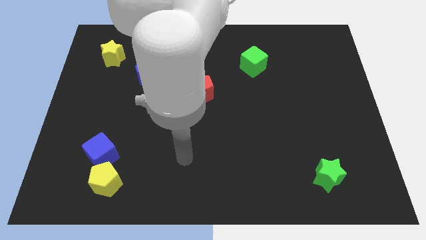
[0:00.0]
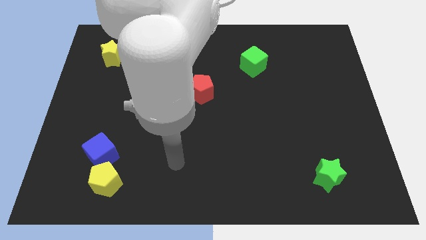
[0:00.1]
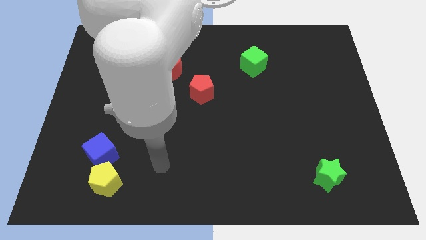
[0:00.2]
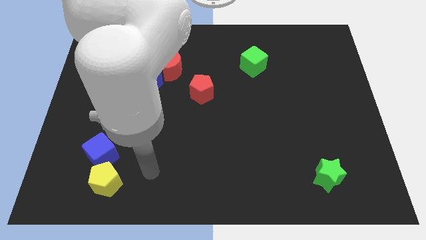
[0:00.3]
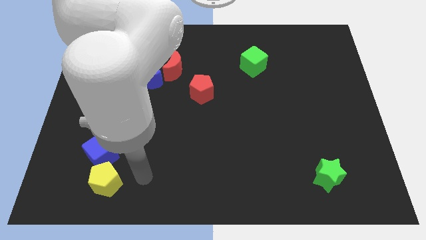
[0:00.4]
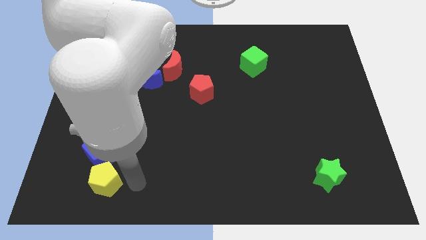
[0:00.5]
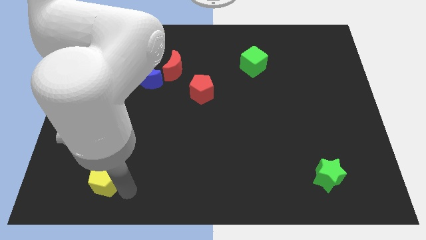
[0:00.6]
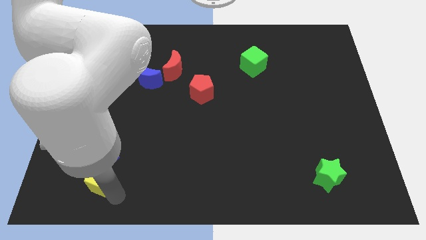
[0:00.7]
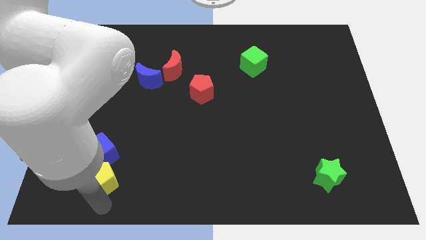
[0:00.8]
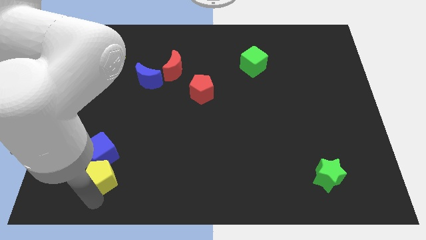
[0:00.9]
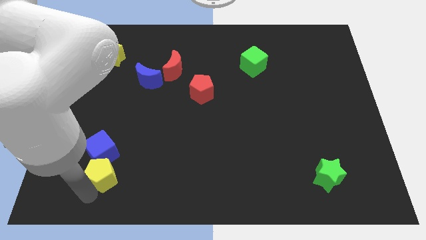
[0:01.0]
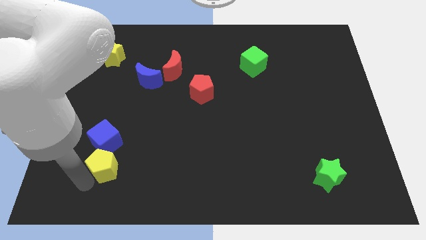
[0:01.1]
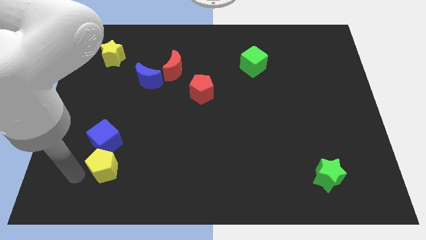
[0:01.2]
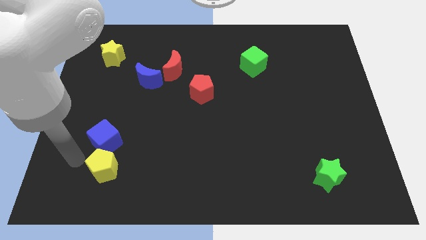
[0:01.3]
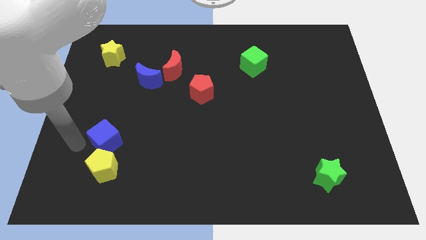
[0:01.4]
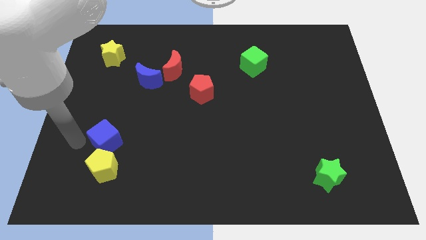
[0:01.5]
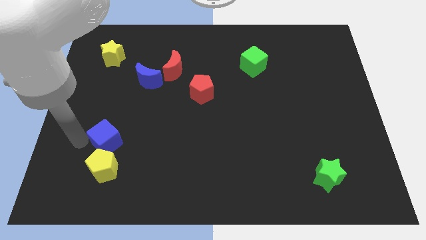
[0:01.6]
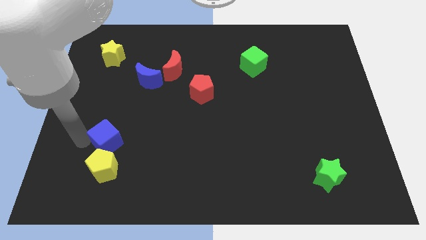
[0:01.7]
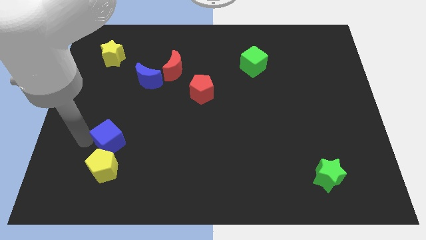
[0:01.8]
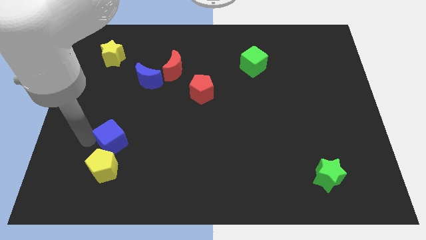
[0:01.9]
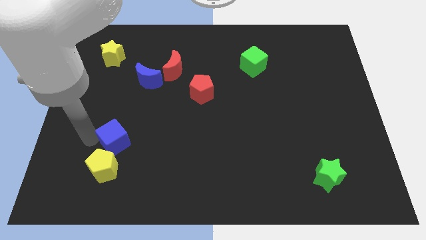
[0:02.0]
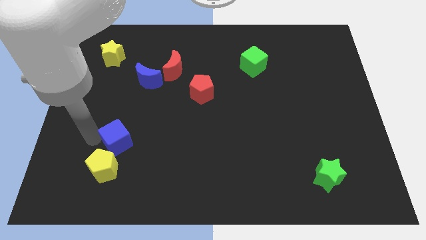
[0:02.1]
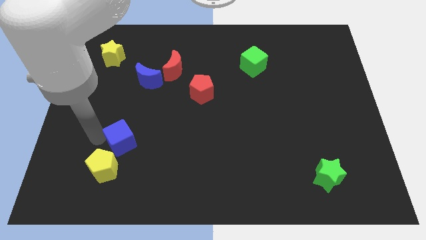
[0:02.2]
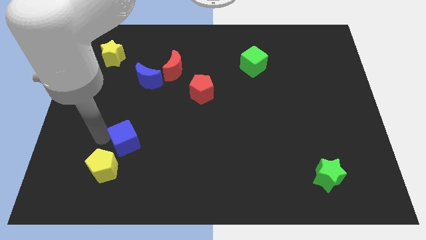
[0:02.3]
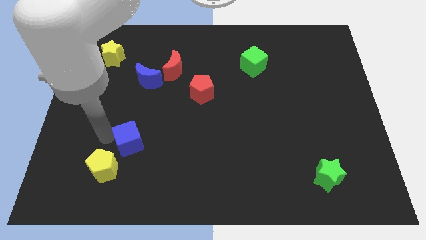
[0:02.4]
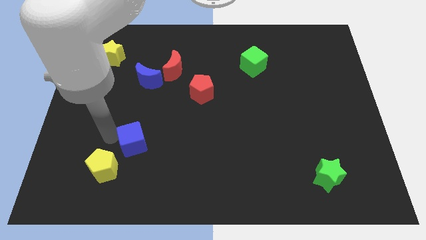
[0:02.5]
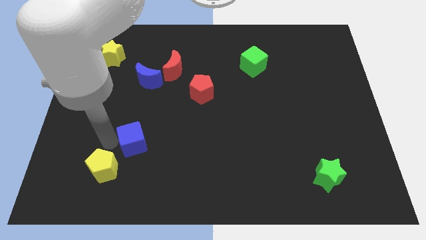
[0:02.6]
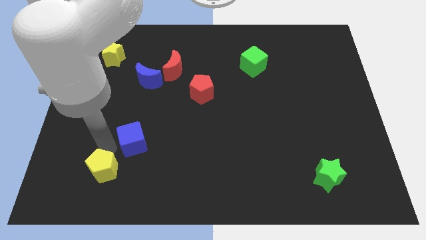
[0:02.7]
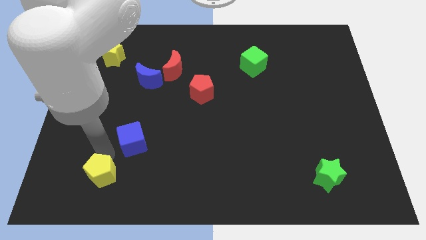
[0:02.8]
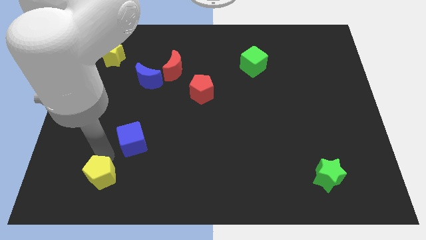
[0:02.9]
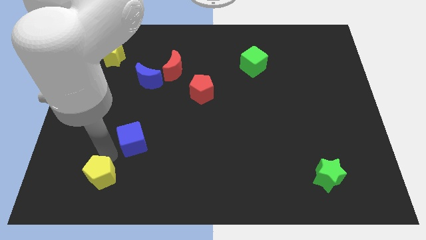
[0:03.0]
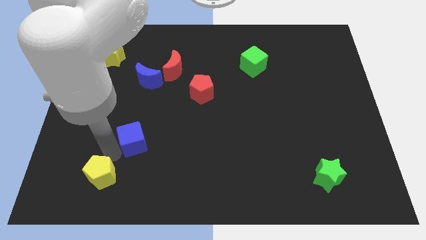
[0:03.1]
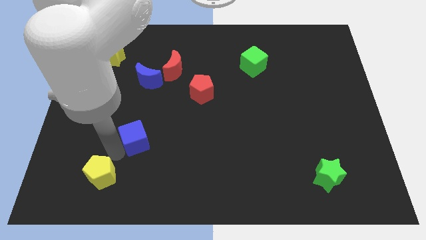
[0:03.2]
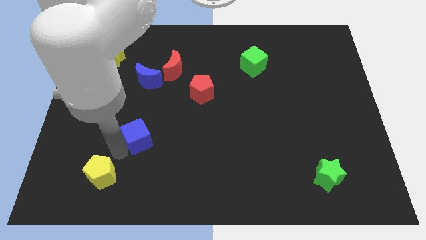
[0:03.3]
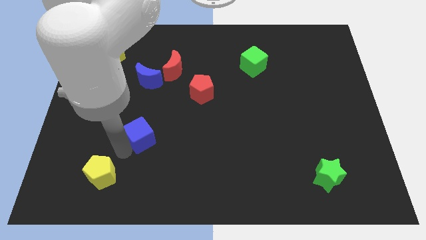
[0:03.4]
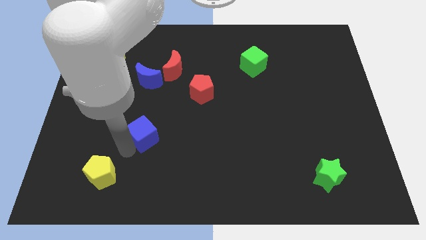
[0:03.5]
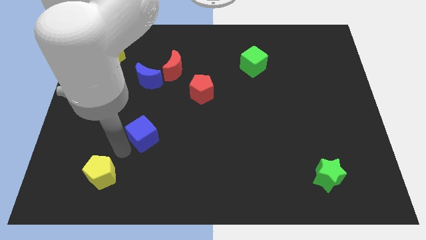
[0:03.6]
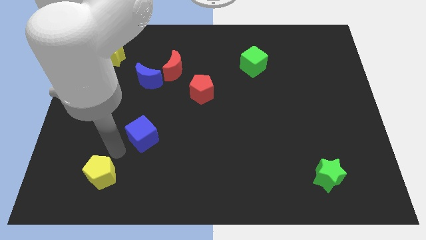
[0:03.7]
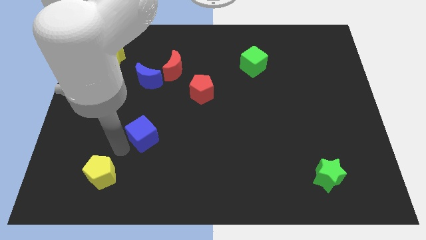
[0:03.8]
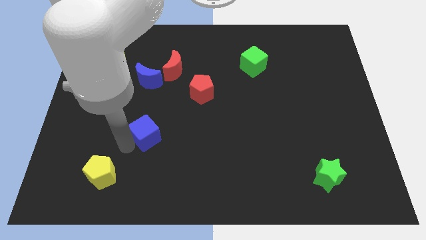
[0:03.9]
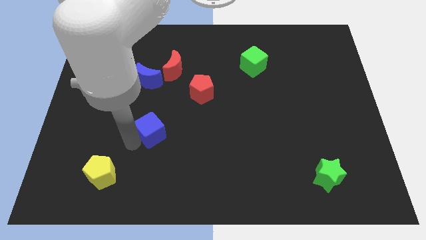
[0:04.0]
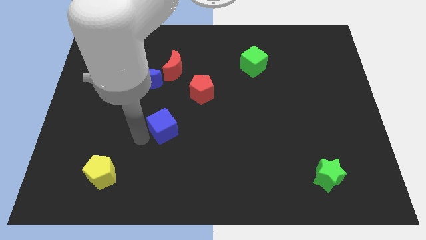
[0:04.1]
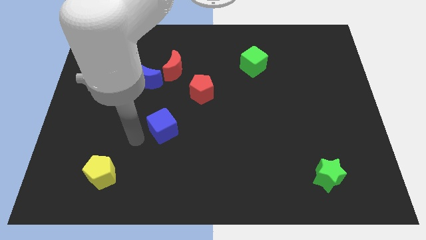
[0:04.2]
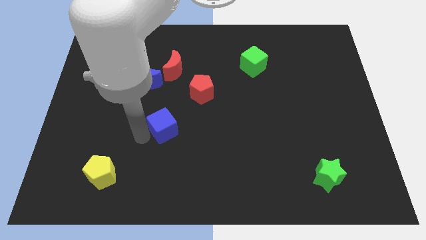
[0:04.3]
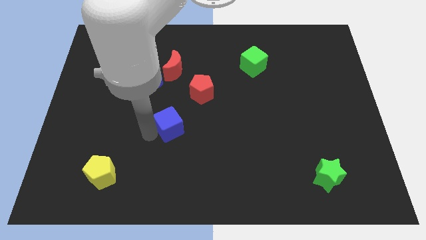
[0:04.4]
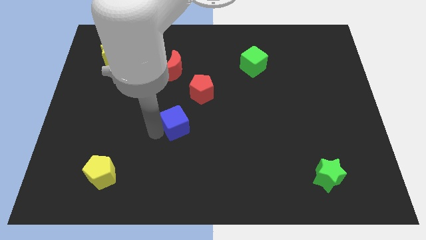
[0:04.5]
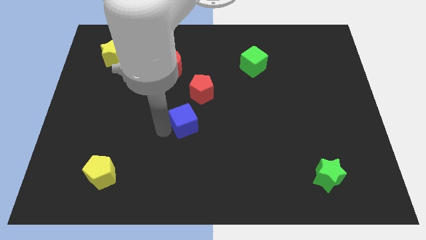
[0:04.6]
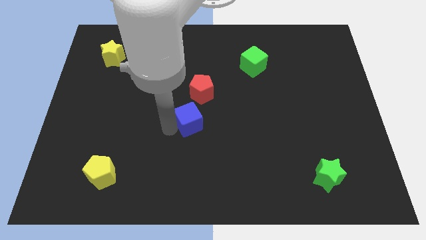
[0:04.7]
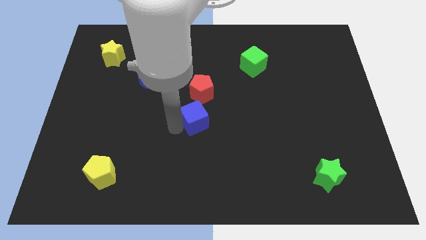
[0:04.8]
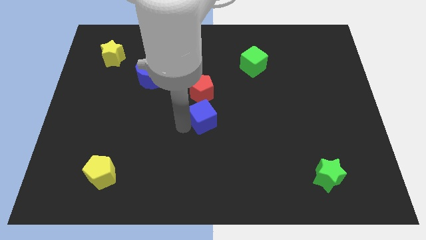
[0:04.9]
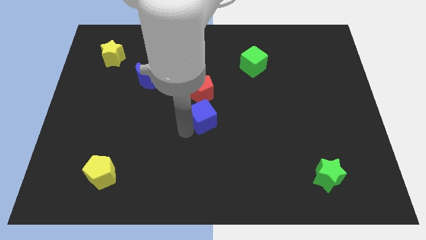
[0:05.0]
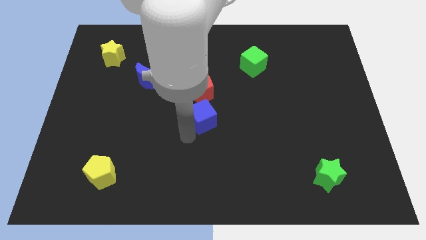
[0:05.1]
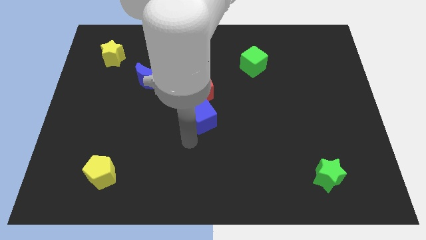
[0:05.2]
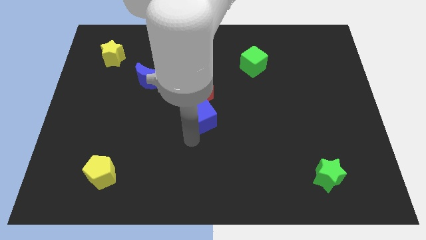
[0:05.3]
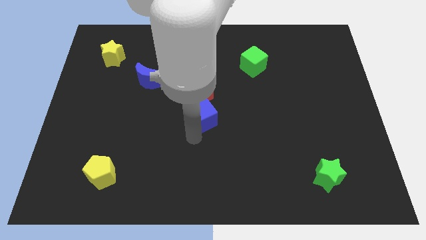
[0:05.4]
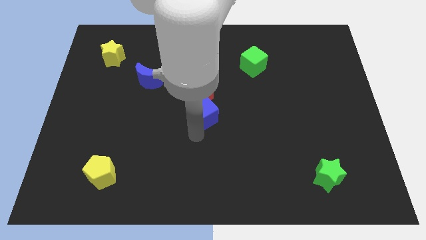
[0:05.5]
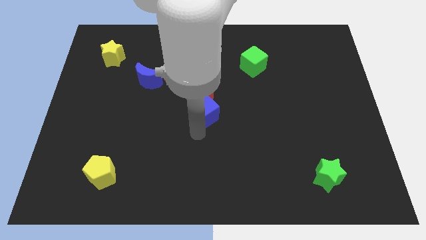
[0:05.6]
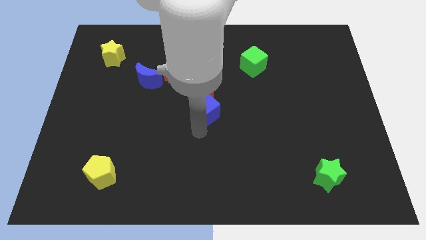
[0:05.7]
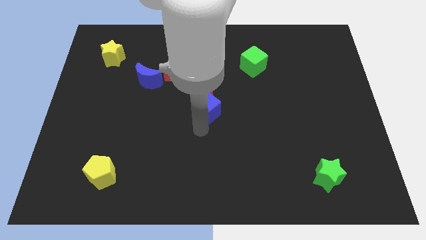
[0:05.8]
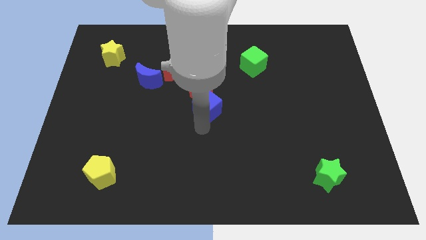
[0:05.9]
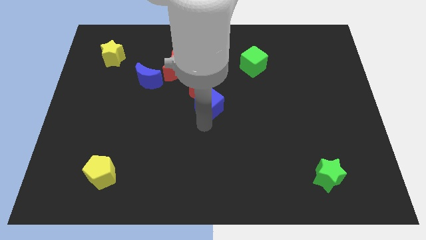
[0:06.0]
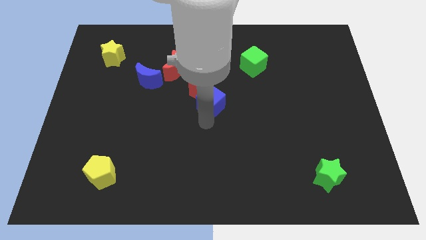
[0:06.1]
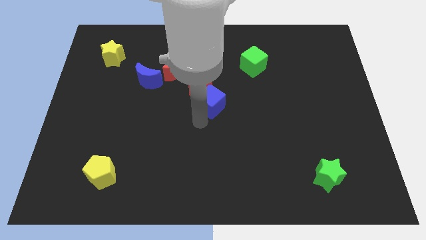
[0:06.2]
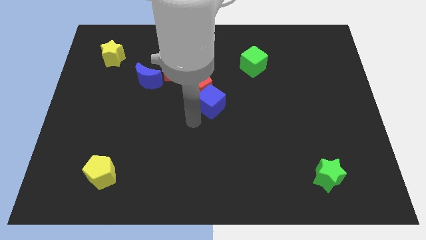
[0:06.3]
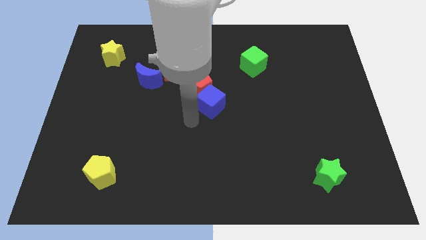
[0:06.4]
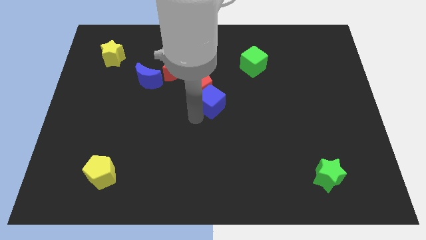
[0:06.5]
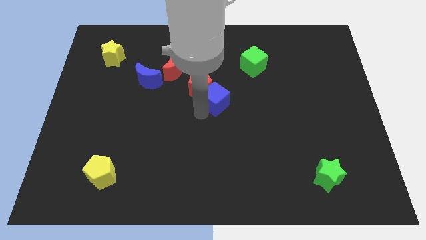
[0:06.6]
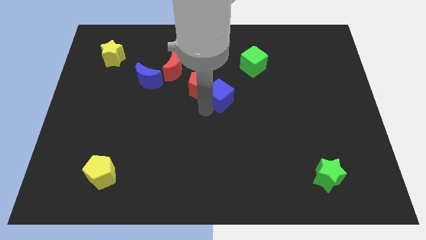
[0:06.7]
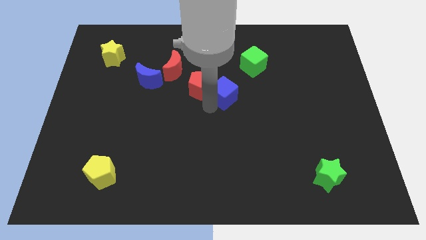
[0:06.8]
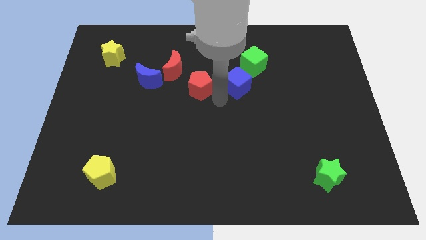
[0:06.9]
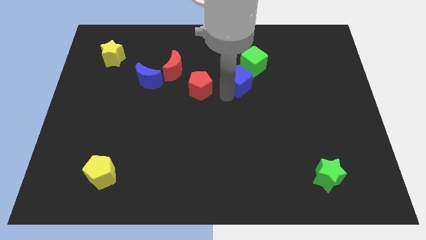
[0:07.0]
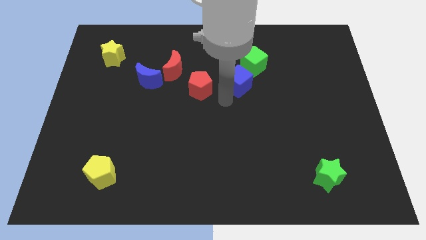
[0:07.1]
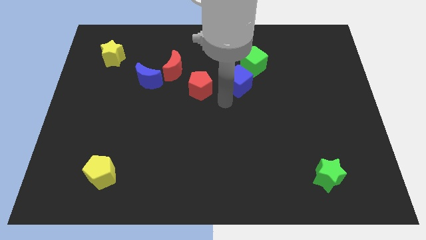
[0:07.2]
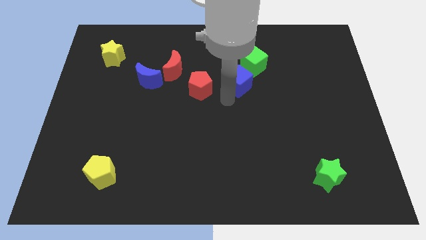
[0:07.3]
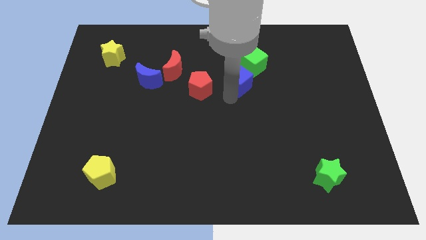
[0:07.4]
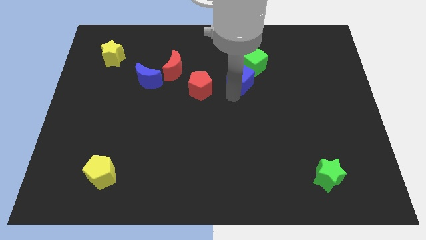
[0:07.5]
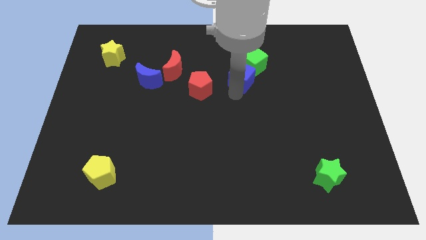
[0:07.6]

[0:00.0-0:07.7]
slide the blue cube towards the green cube
